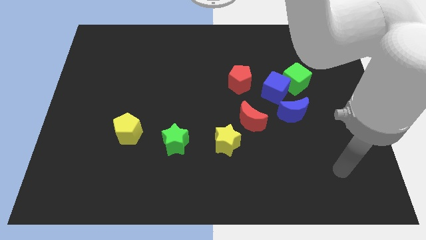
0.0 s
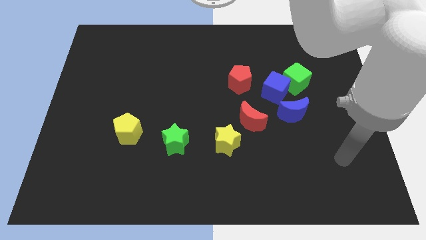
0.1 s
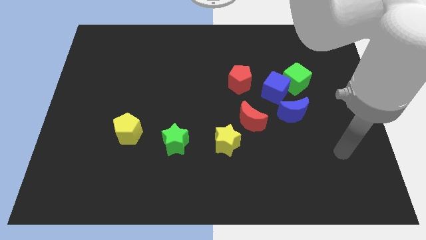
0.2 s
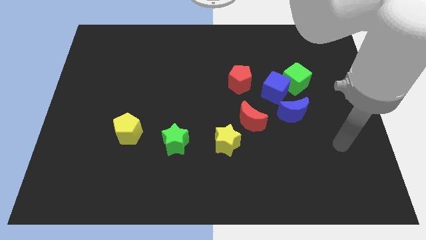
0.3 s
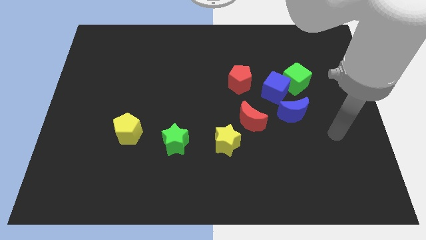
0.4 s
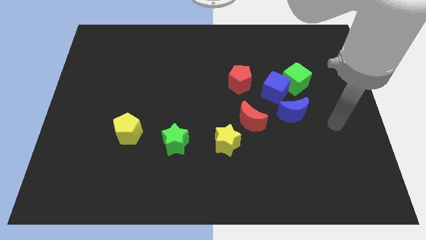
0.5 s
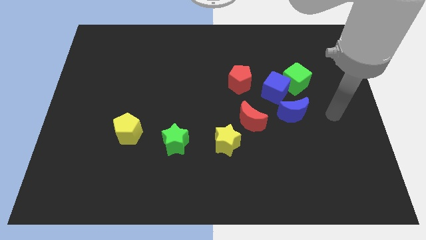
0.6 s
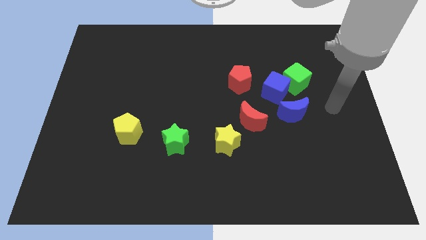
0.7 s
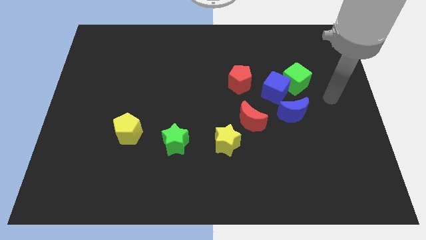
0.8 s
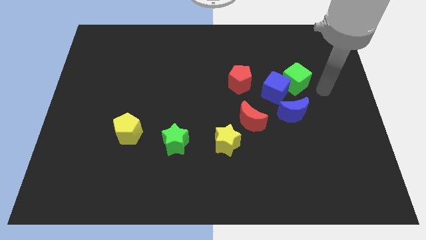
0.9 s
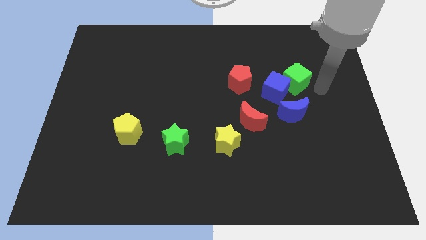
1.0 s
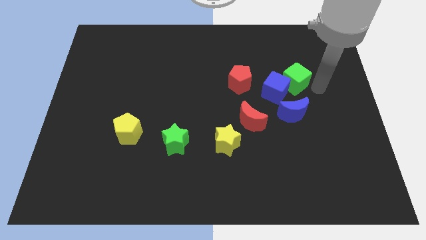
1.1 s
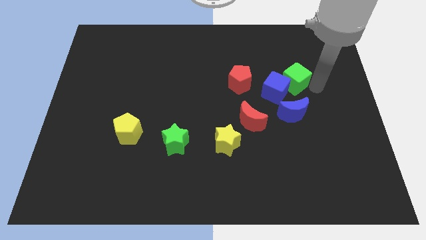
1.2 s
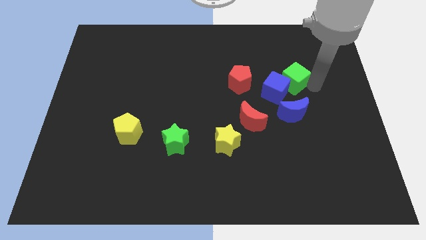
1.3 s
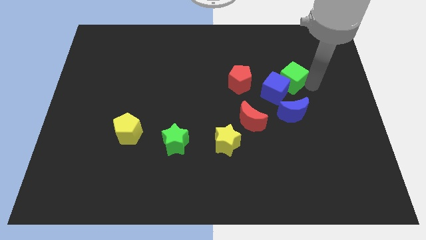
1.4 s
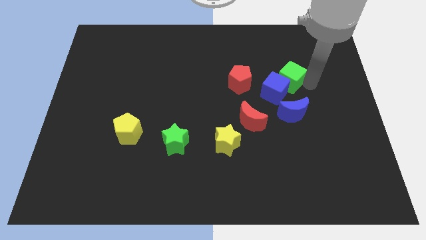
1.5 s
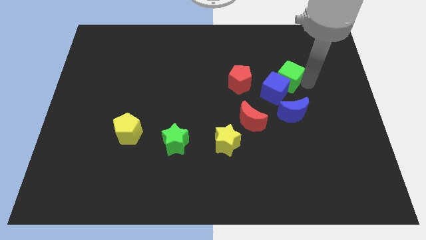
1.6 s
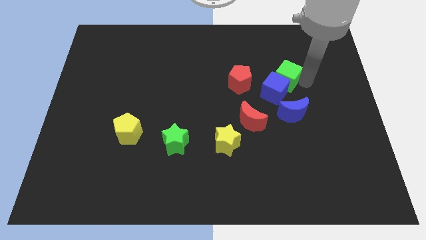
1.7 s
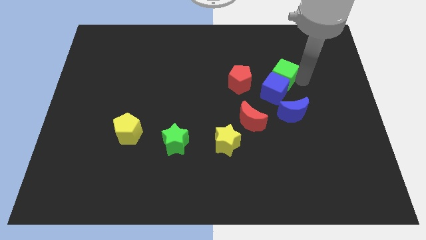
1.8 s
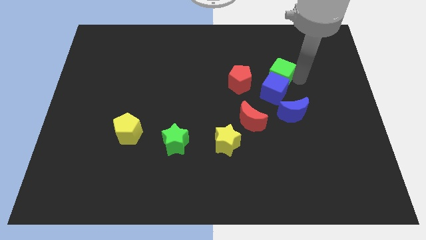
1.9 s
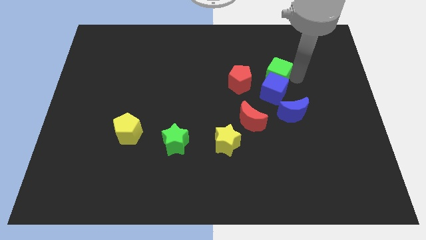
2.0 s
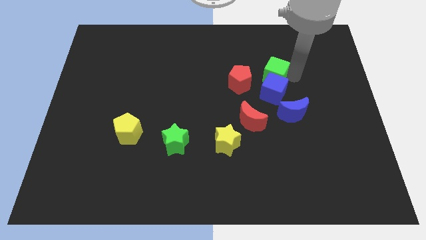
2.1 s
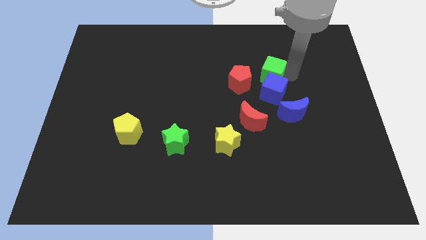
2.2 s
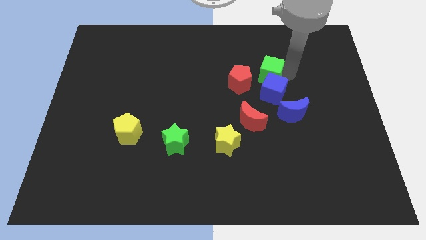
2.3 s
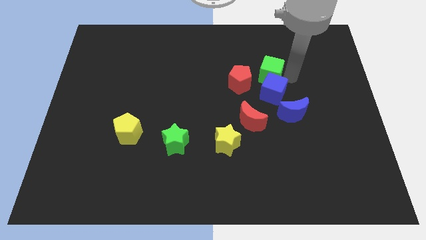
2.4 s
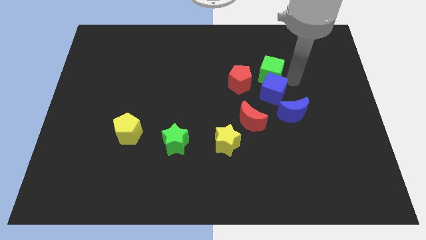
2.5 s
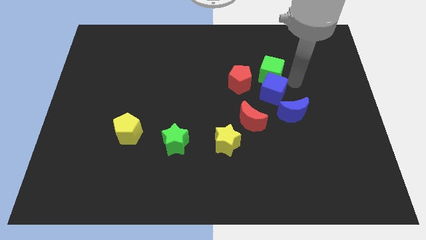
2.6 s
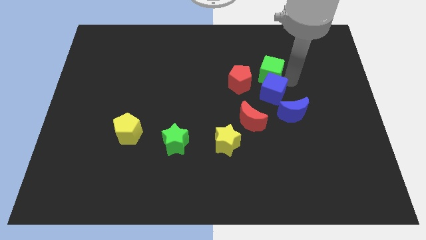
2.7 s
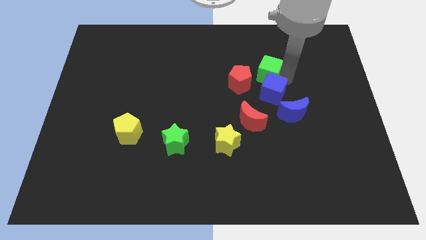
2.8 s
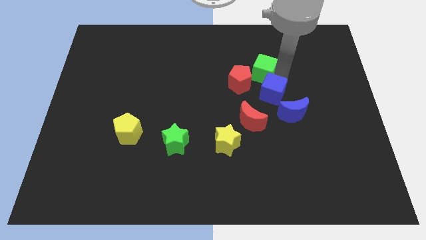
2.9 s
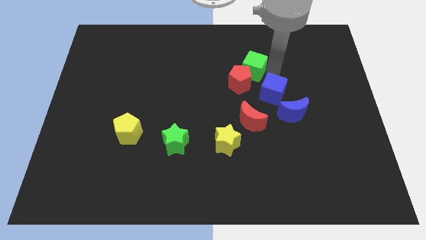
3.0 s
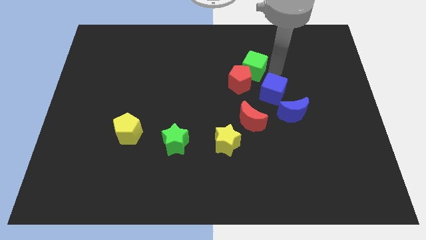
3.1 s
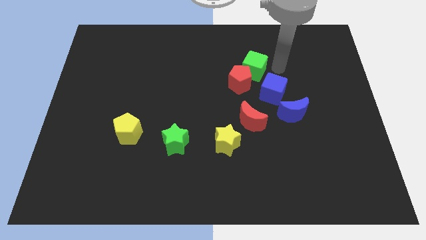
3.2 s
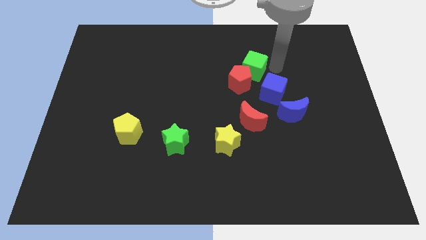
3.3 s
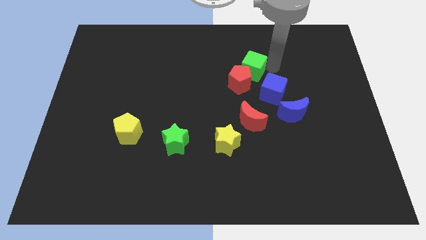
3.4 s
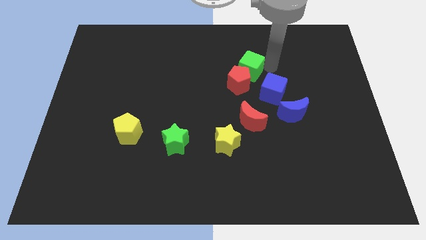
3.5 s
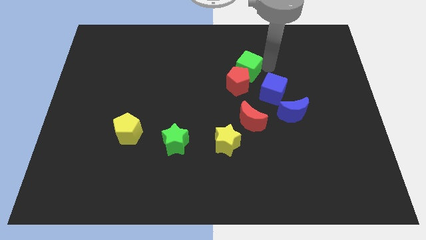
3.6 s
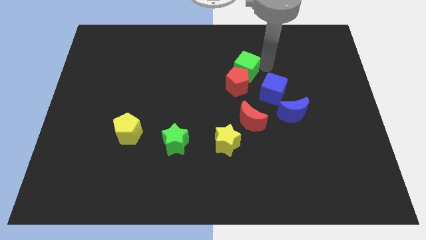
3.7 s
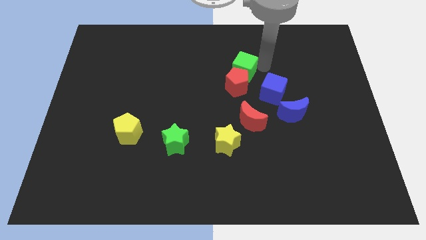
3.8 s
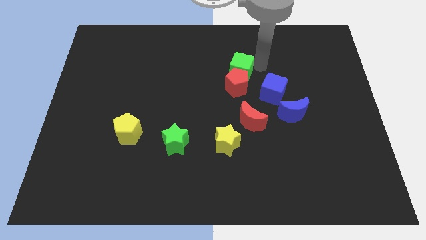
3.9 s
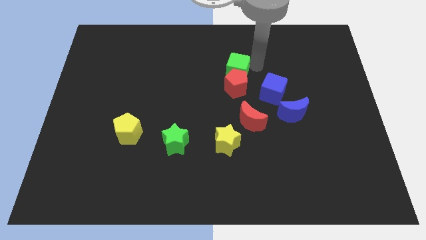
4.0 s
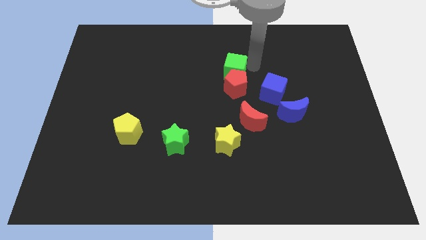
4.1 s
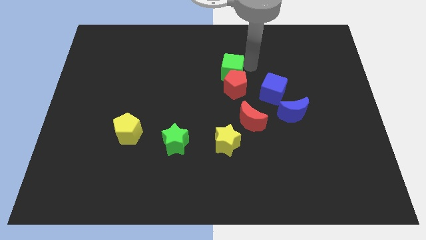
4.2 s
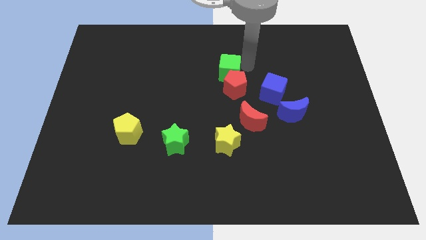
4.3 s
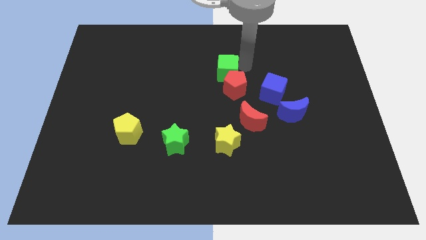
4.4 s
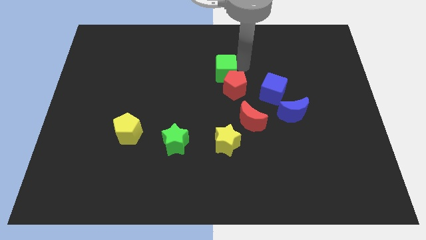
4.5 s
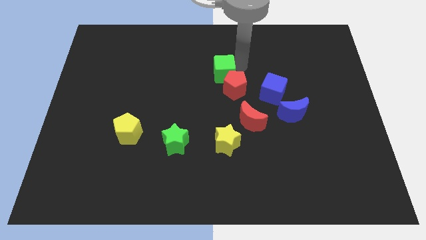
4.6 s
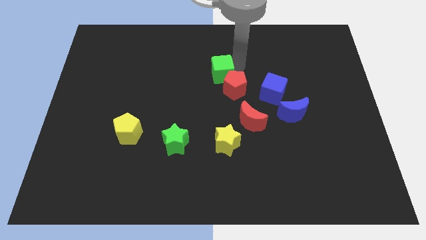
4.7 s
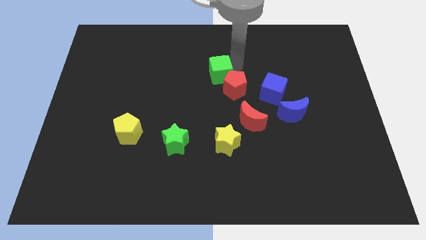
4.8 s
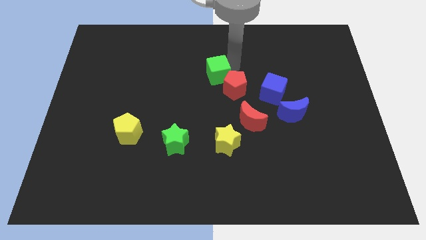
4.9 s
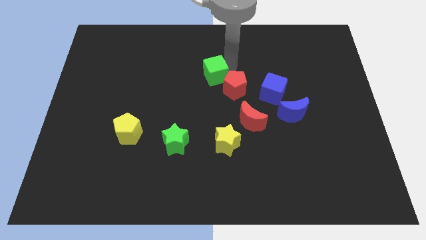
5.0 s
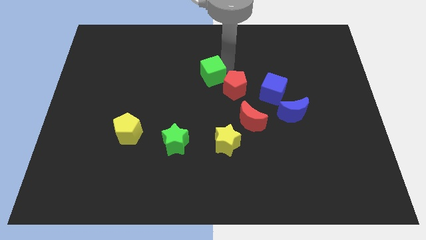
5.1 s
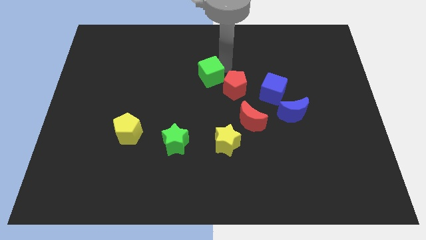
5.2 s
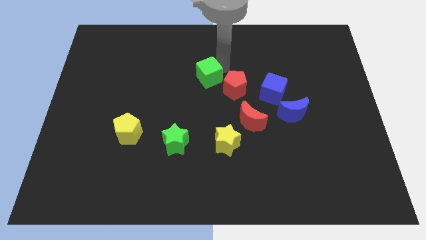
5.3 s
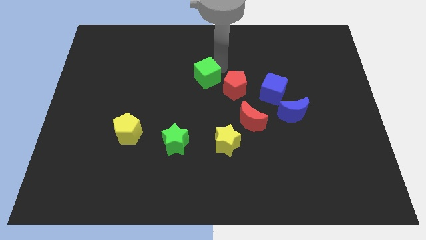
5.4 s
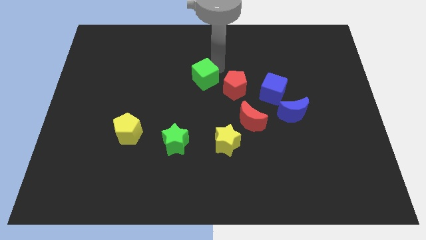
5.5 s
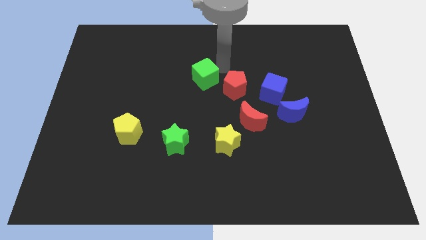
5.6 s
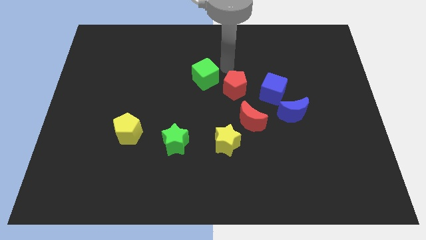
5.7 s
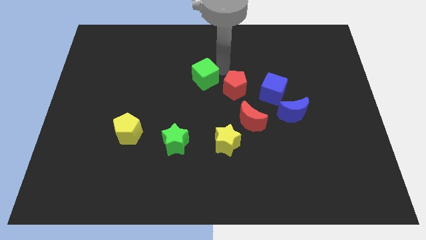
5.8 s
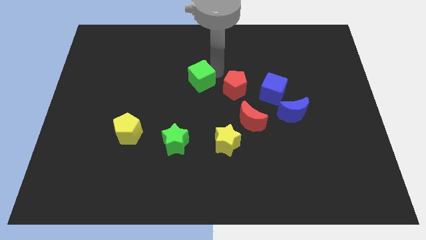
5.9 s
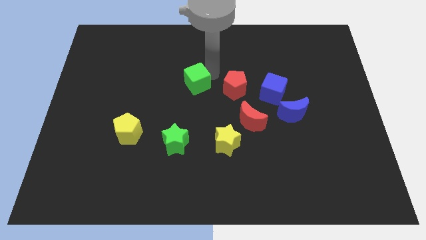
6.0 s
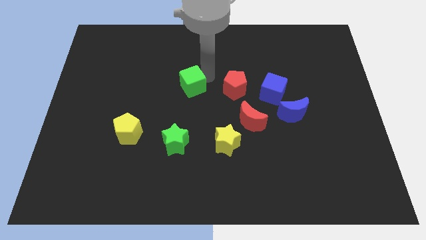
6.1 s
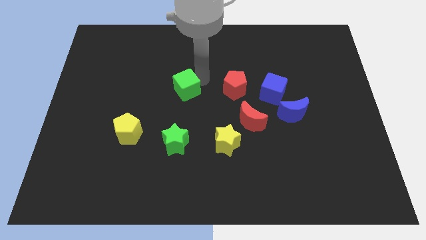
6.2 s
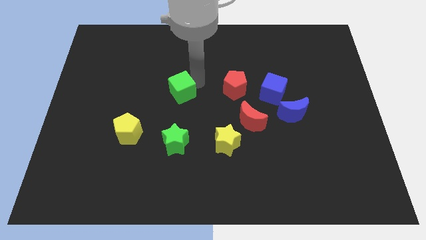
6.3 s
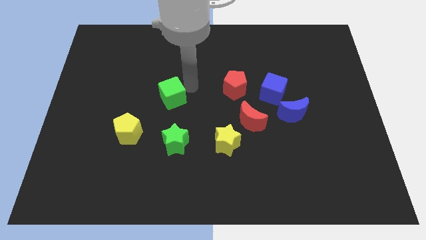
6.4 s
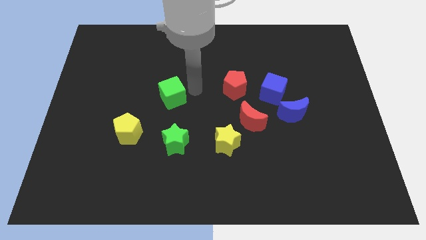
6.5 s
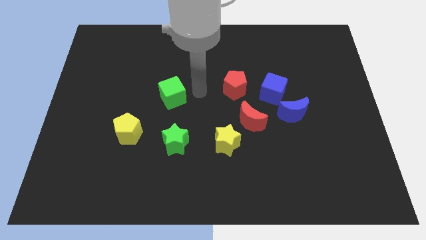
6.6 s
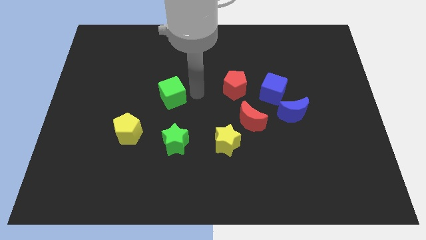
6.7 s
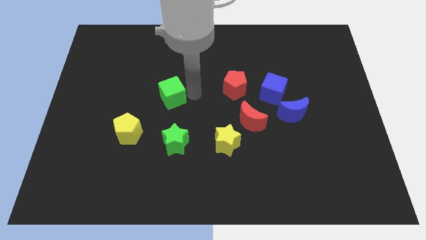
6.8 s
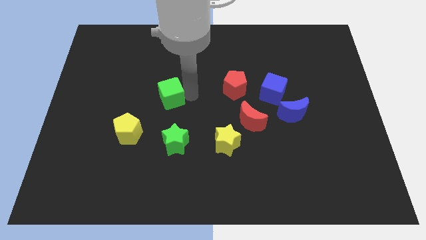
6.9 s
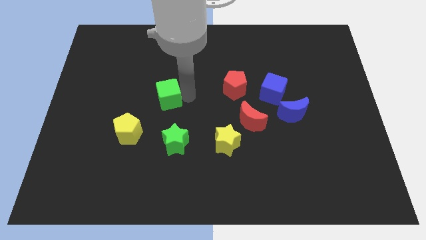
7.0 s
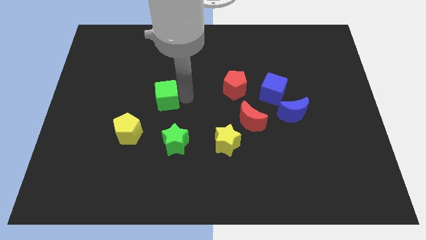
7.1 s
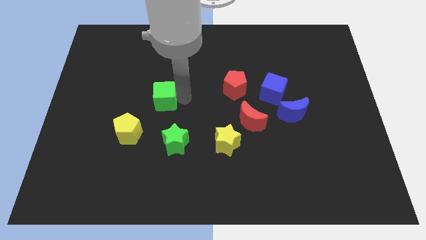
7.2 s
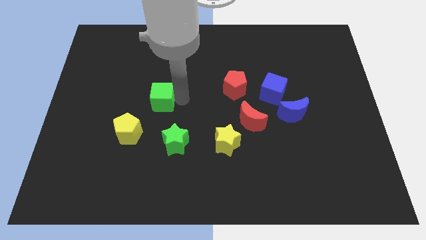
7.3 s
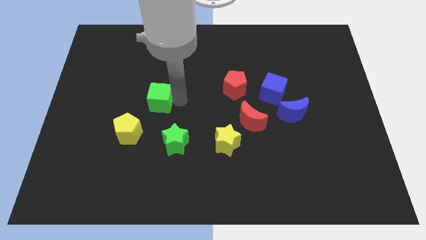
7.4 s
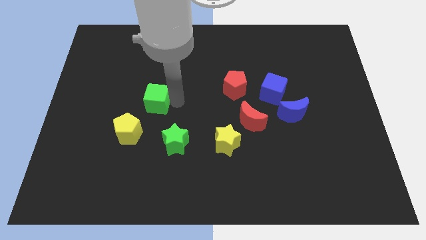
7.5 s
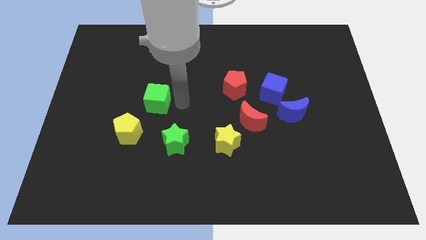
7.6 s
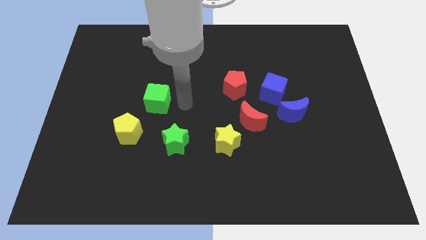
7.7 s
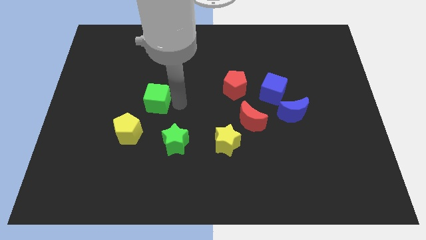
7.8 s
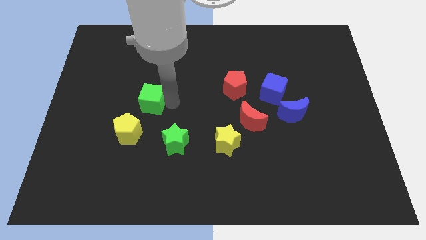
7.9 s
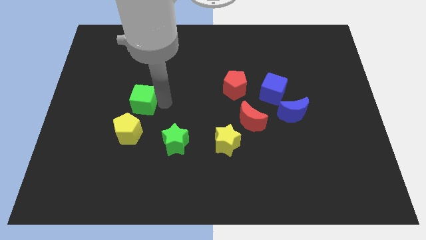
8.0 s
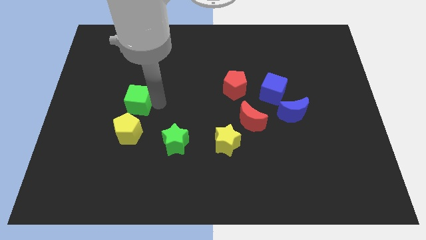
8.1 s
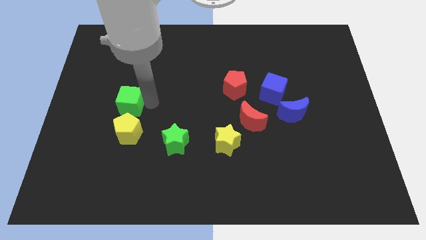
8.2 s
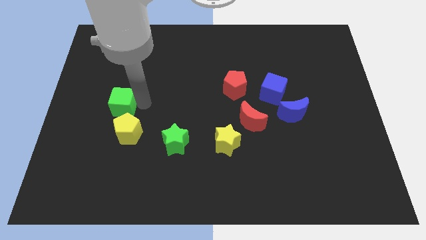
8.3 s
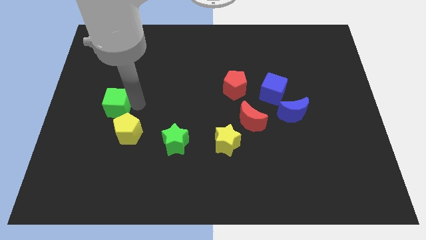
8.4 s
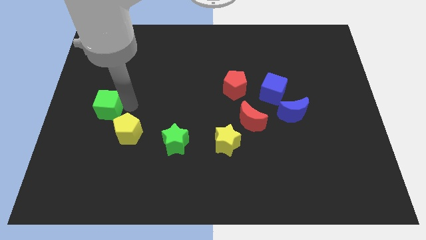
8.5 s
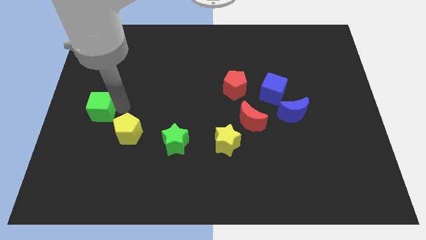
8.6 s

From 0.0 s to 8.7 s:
put the green cube to the left side of the board
